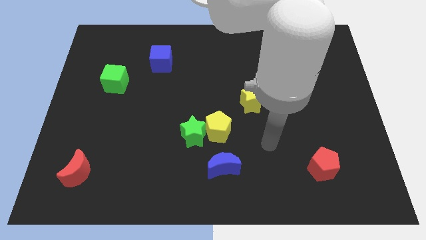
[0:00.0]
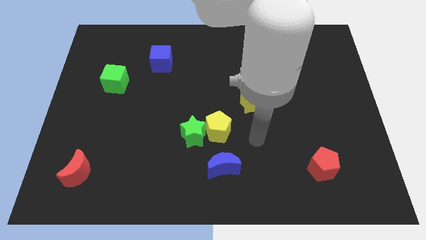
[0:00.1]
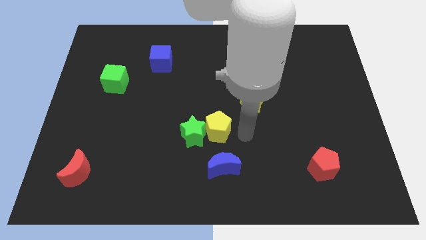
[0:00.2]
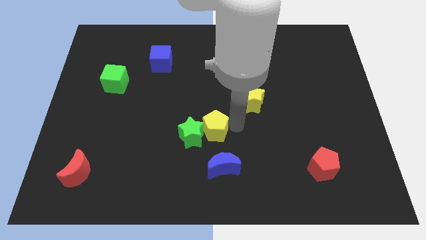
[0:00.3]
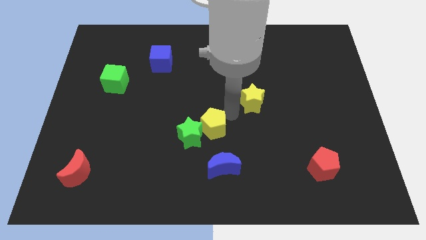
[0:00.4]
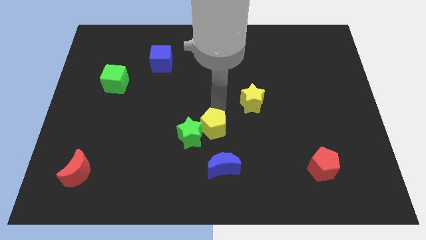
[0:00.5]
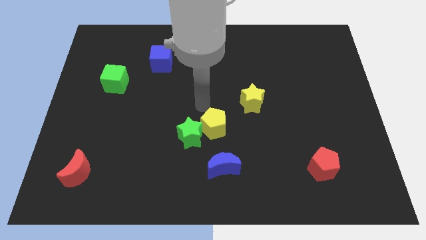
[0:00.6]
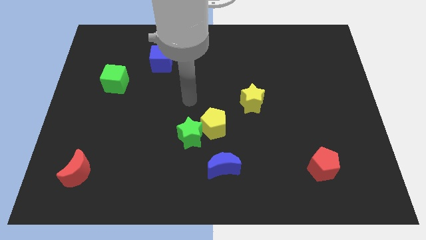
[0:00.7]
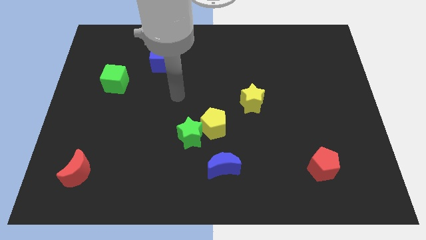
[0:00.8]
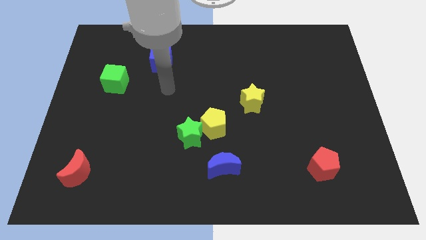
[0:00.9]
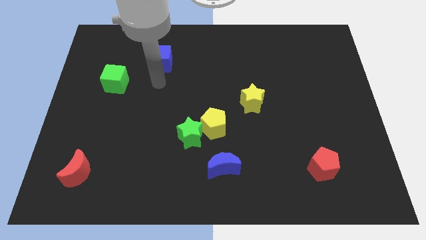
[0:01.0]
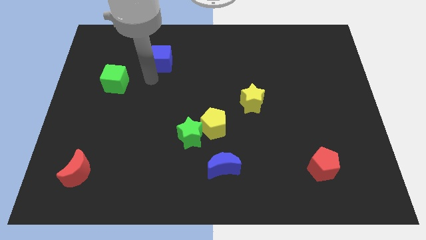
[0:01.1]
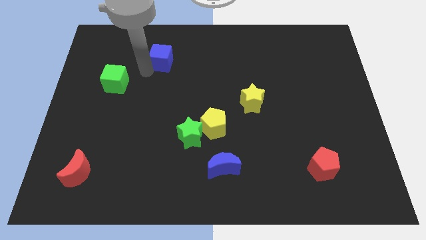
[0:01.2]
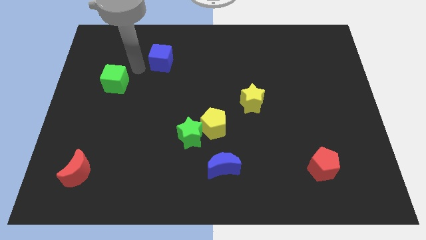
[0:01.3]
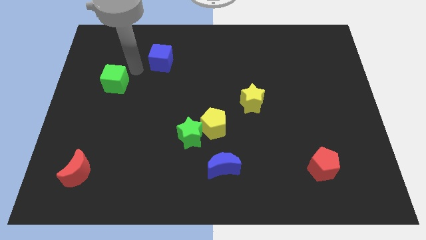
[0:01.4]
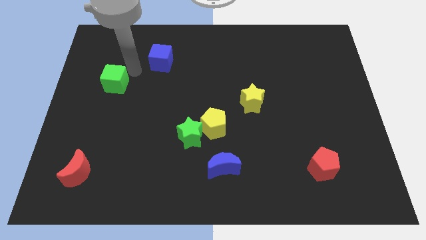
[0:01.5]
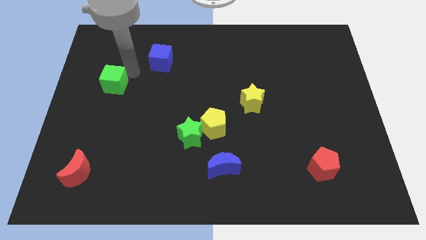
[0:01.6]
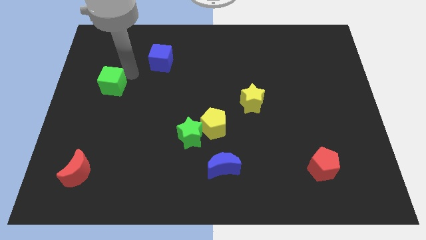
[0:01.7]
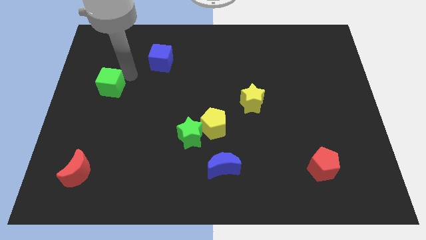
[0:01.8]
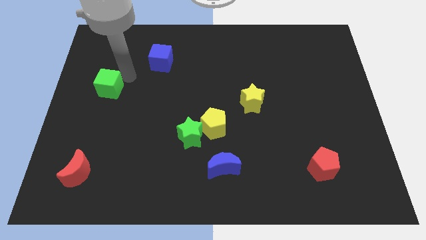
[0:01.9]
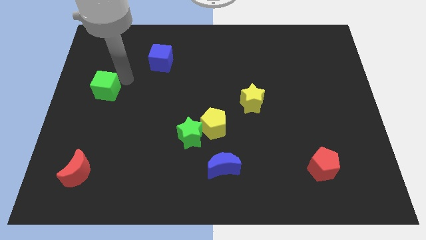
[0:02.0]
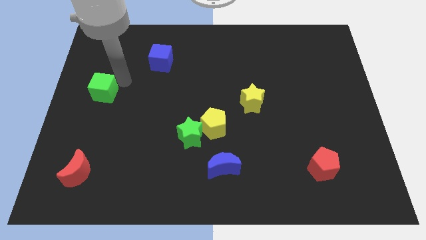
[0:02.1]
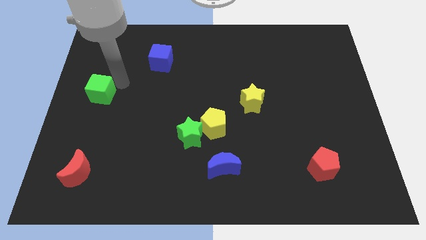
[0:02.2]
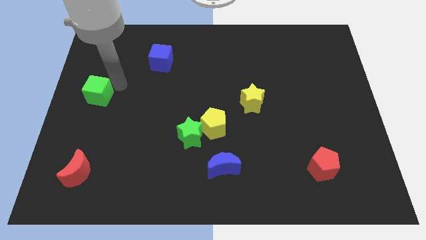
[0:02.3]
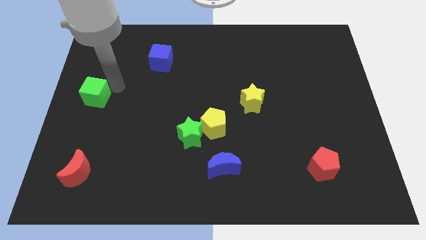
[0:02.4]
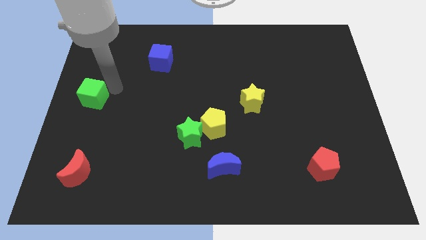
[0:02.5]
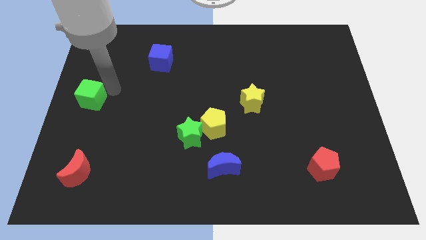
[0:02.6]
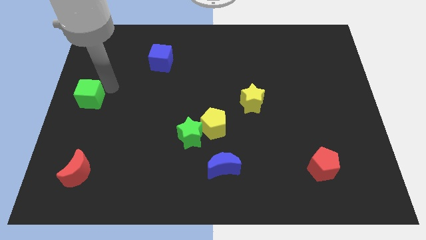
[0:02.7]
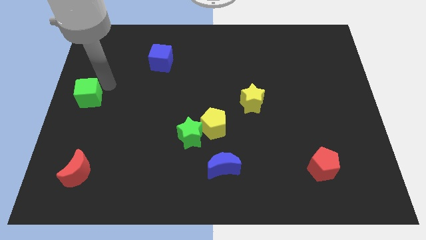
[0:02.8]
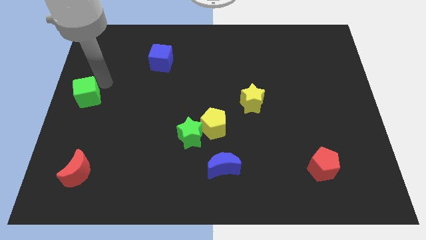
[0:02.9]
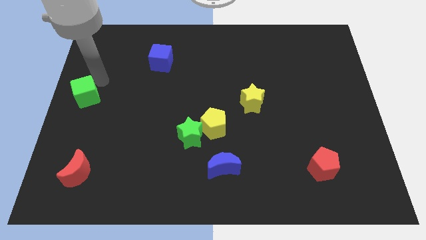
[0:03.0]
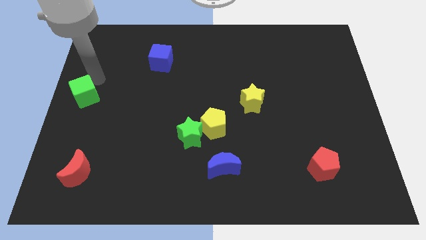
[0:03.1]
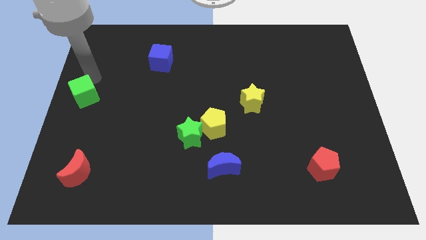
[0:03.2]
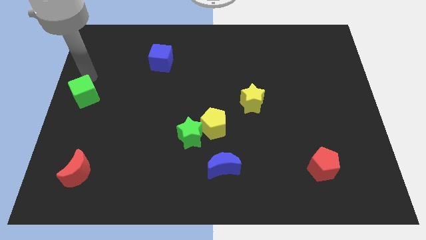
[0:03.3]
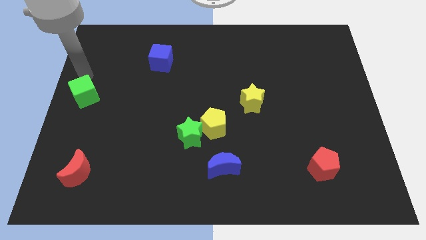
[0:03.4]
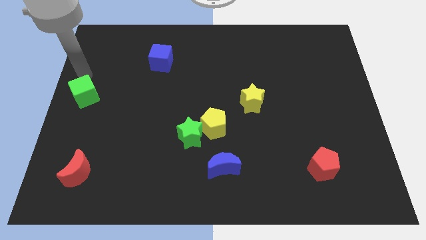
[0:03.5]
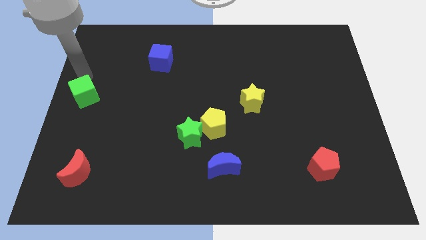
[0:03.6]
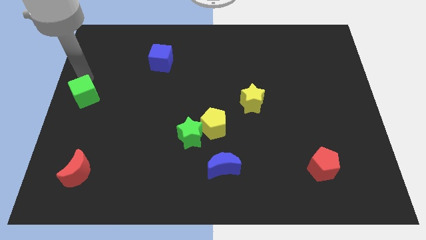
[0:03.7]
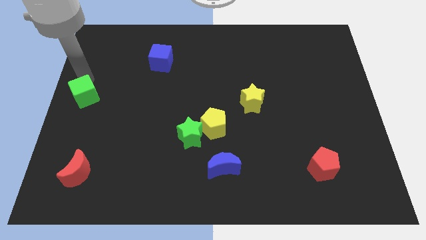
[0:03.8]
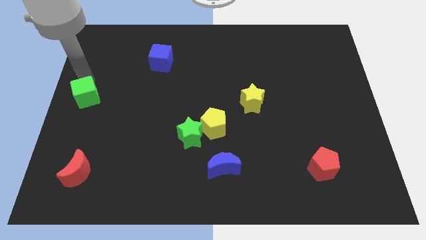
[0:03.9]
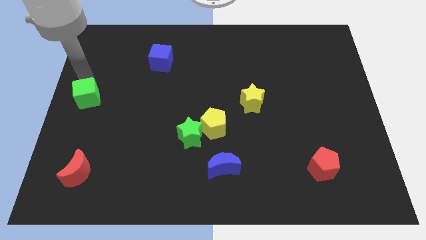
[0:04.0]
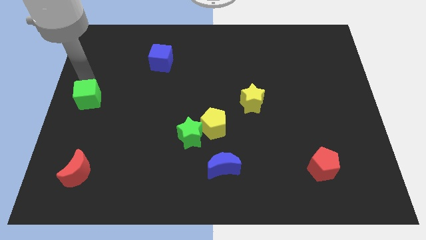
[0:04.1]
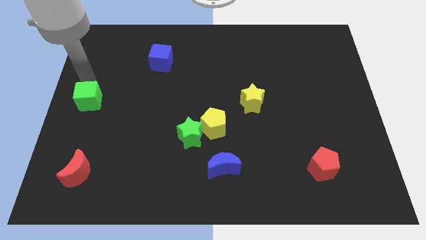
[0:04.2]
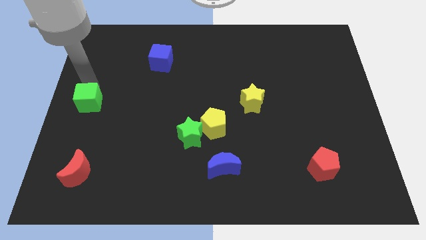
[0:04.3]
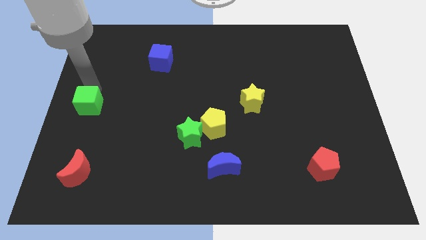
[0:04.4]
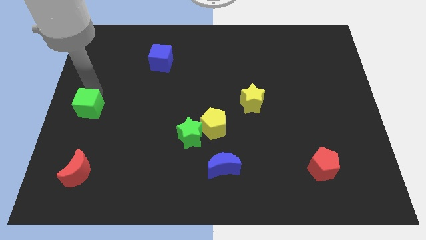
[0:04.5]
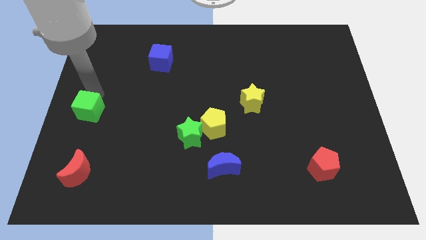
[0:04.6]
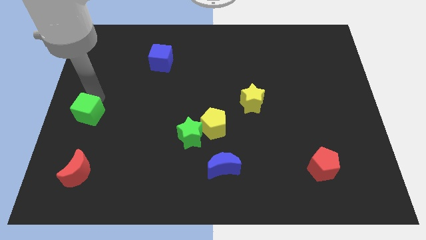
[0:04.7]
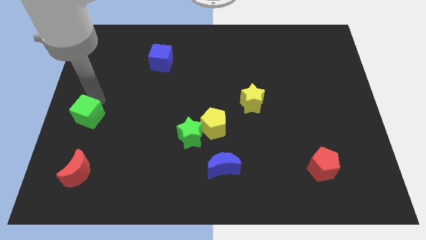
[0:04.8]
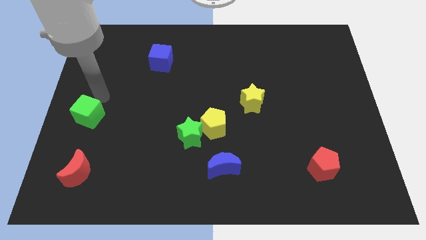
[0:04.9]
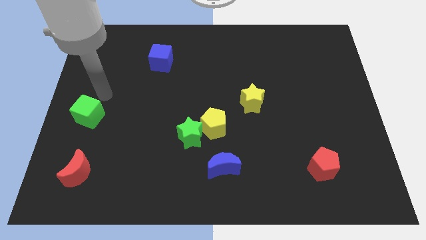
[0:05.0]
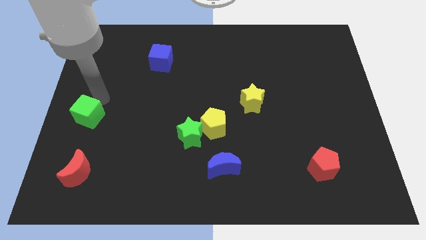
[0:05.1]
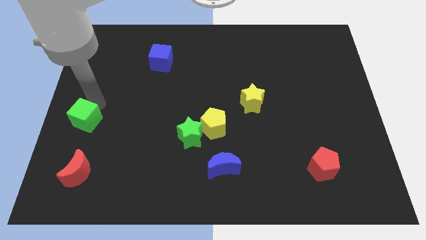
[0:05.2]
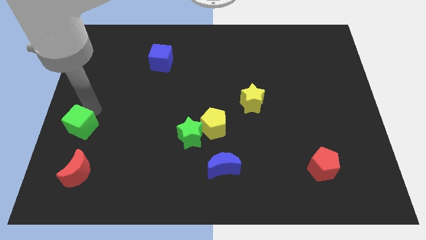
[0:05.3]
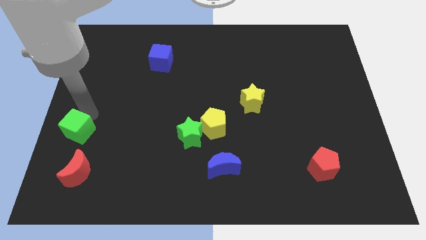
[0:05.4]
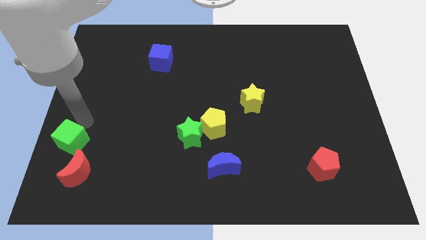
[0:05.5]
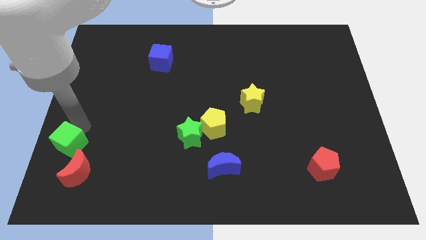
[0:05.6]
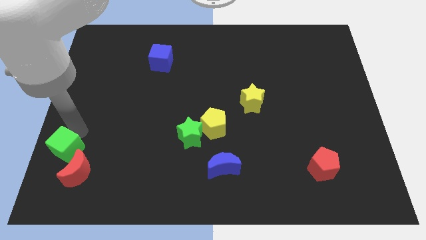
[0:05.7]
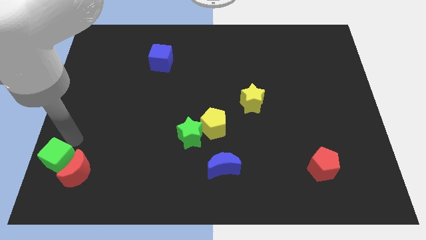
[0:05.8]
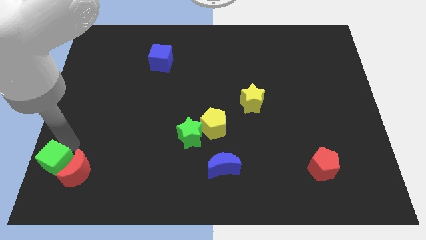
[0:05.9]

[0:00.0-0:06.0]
move the green cube to the bottom left of the board

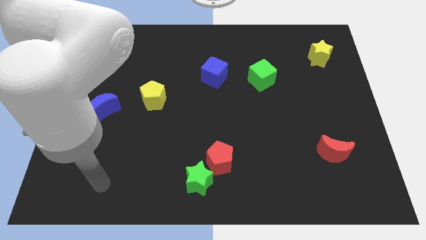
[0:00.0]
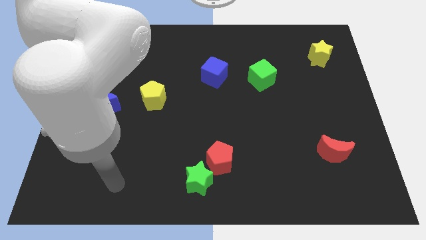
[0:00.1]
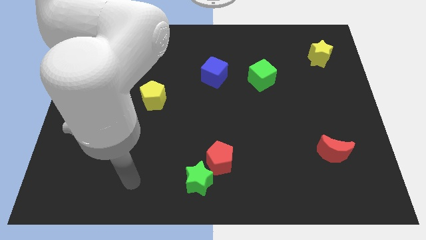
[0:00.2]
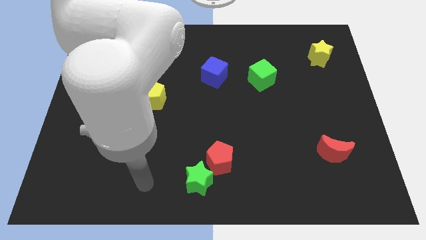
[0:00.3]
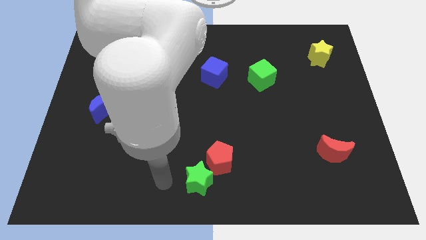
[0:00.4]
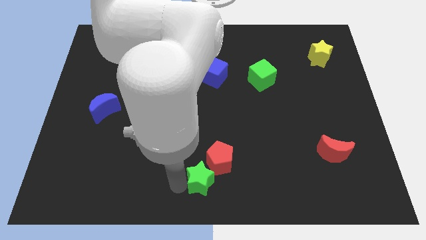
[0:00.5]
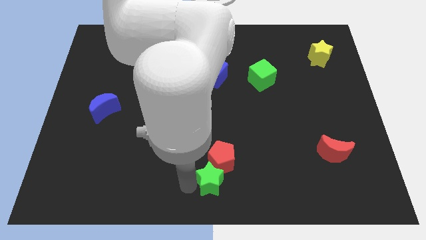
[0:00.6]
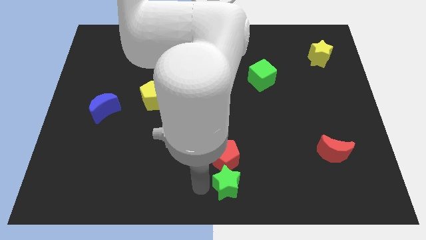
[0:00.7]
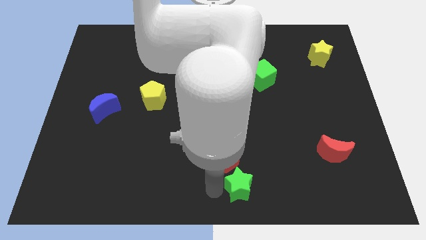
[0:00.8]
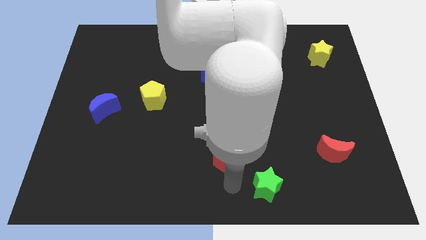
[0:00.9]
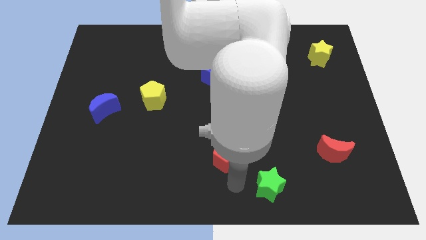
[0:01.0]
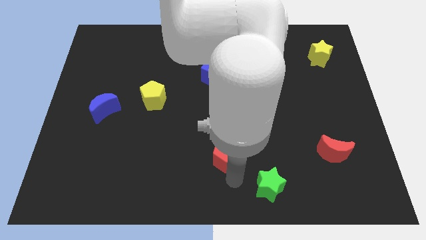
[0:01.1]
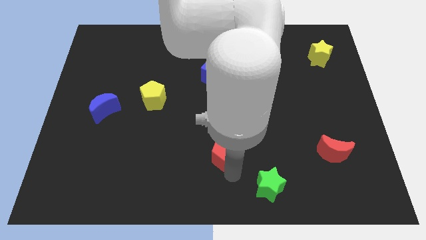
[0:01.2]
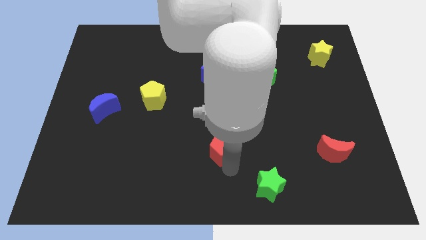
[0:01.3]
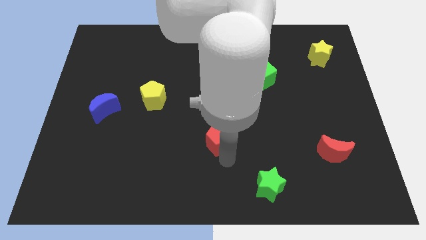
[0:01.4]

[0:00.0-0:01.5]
put the red pentagon to the middle of the board
